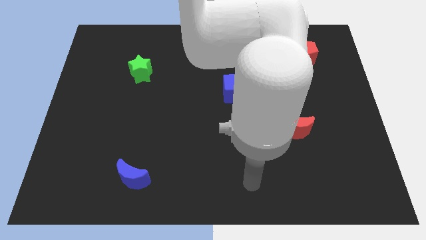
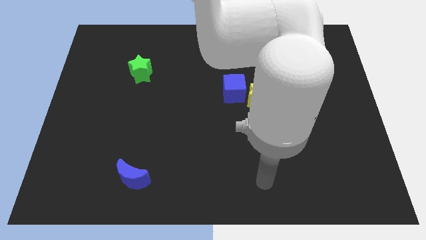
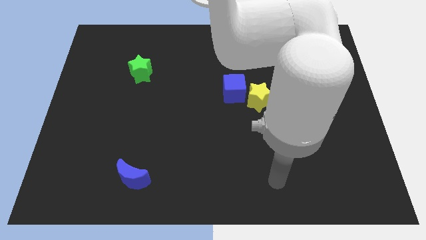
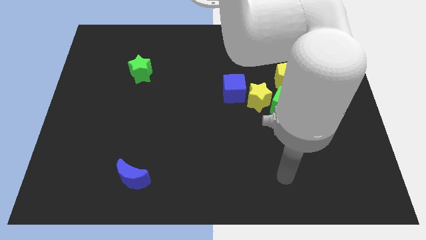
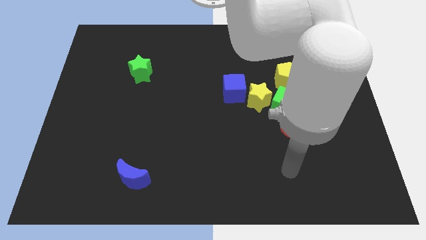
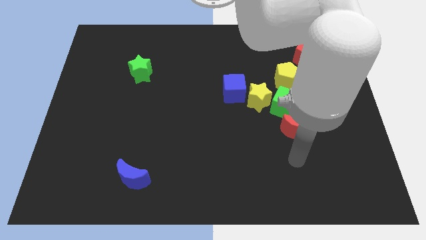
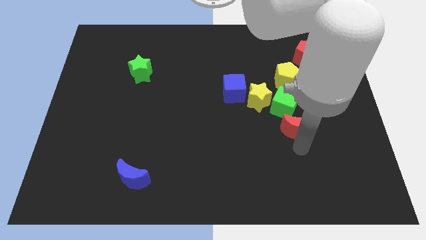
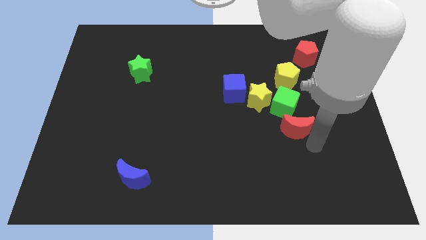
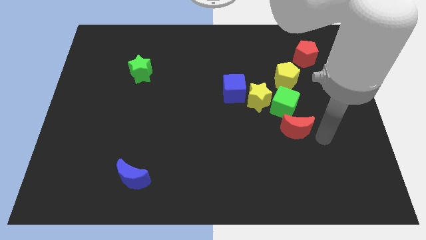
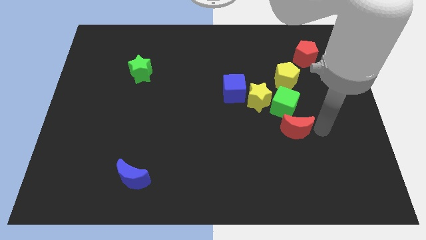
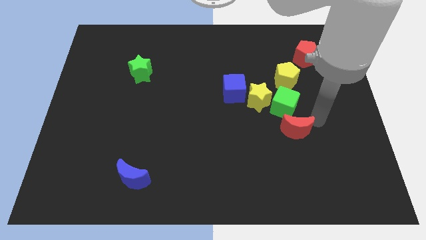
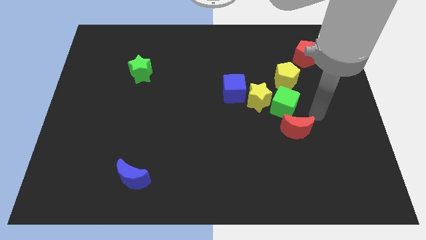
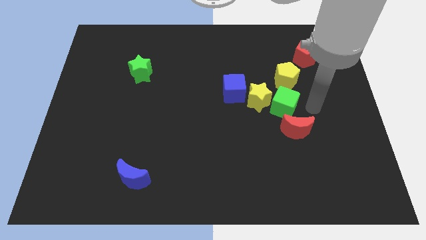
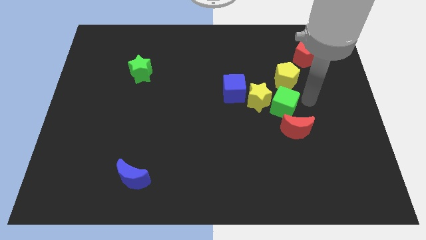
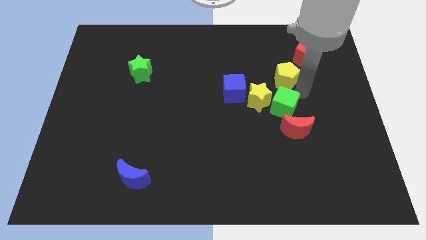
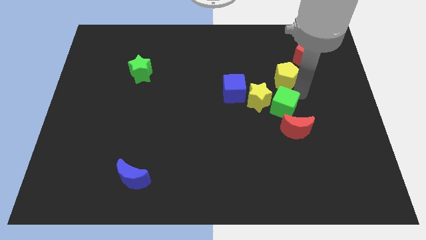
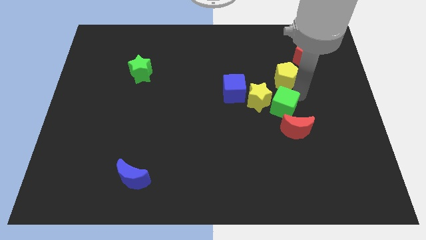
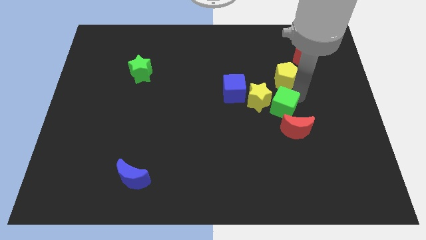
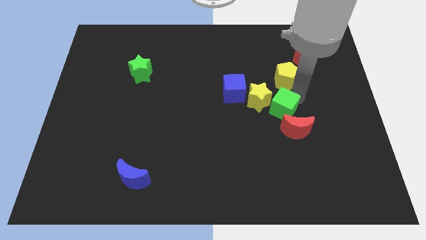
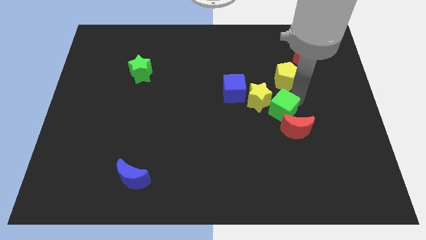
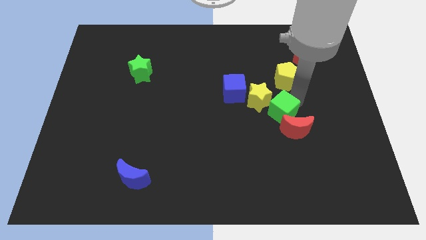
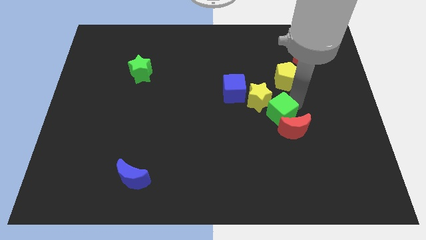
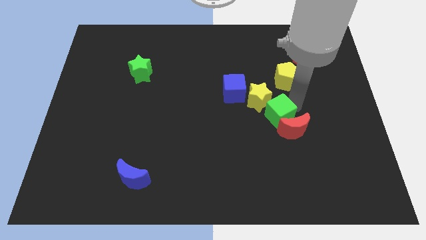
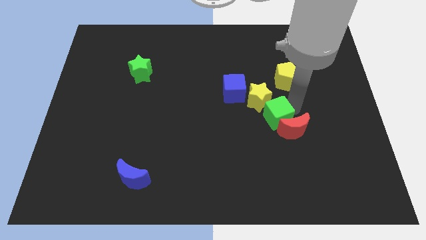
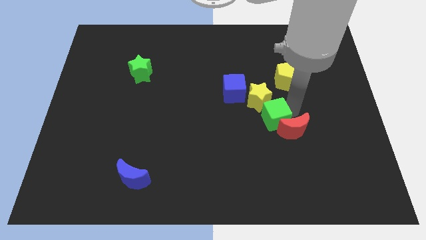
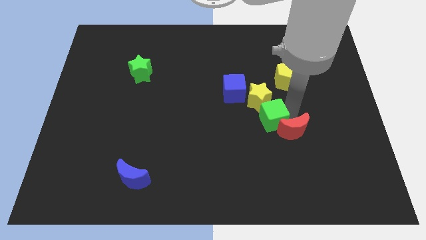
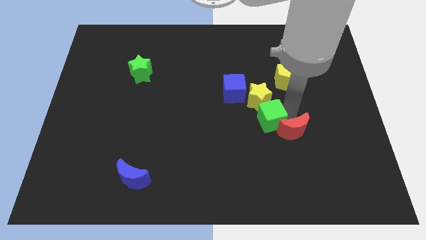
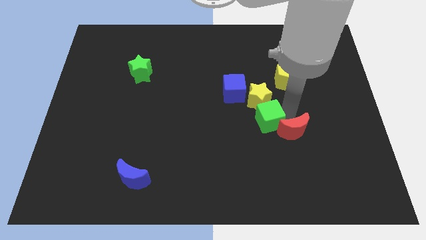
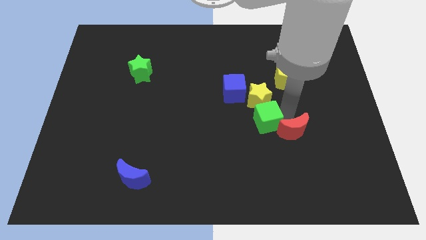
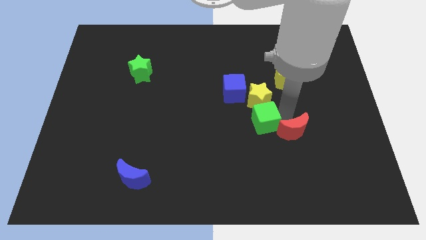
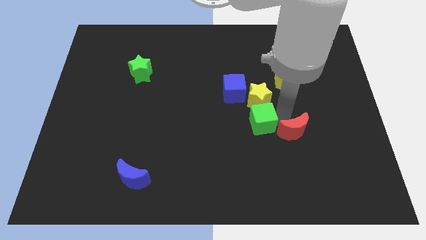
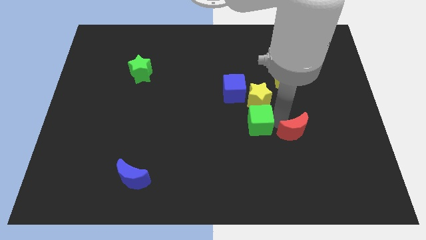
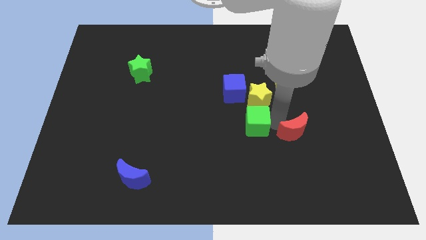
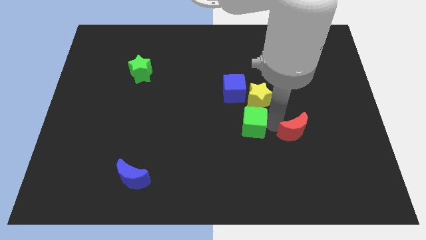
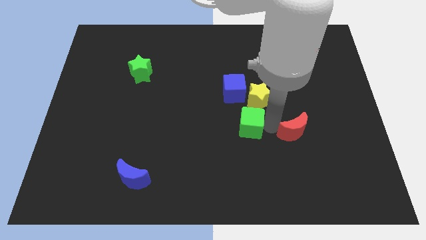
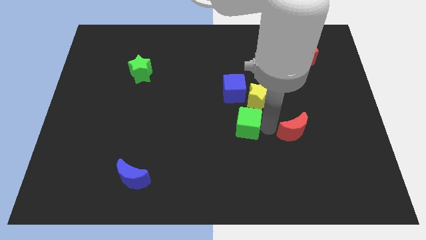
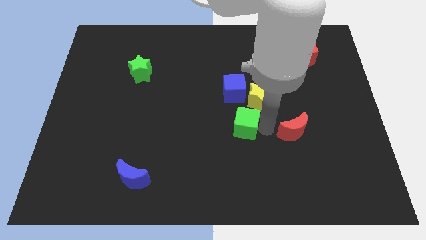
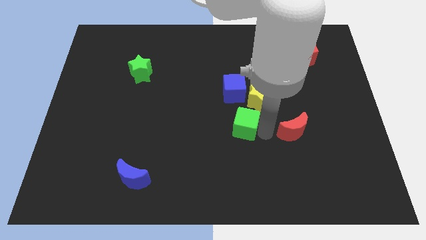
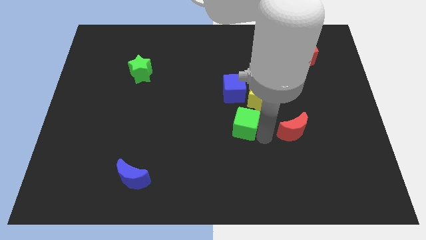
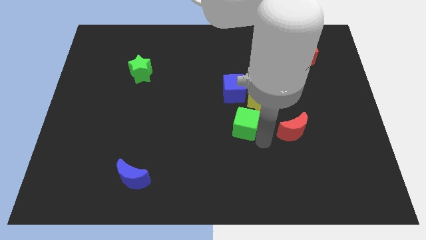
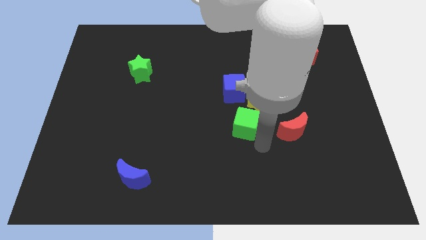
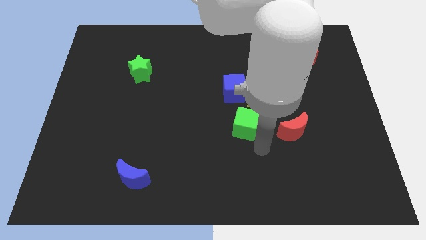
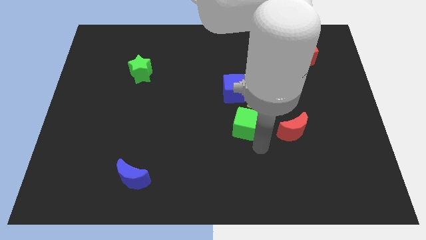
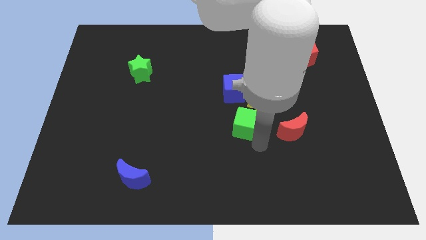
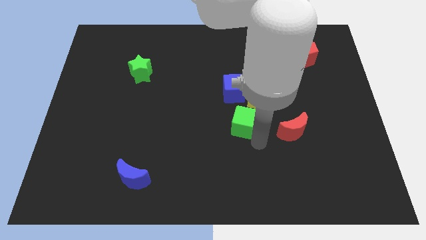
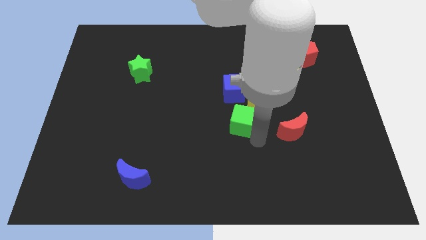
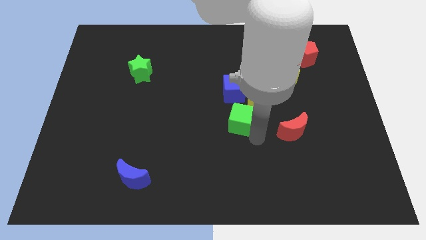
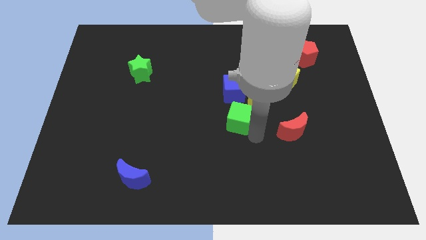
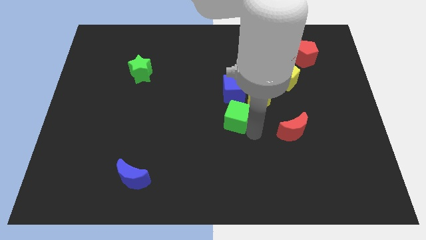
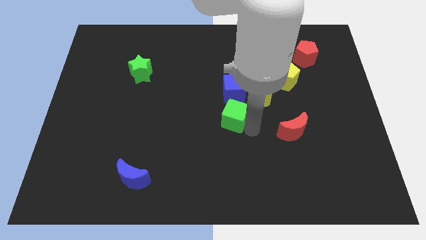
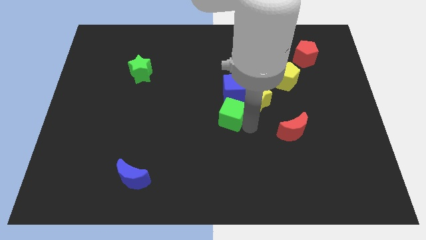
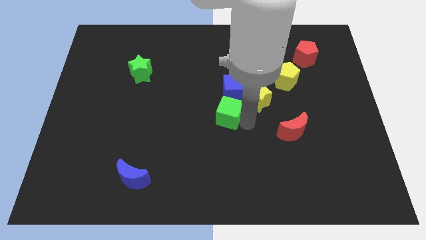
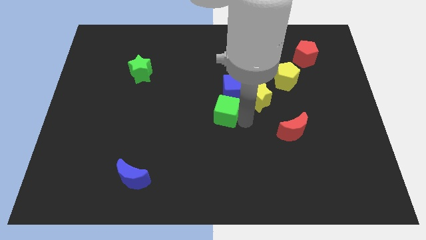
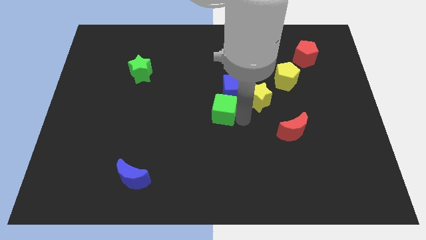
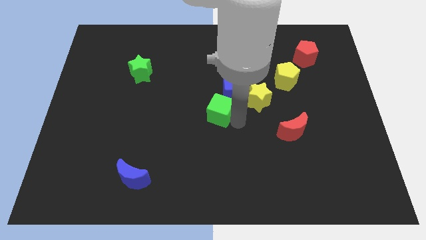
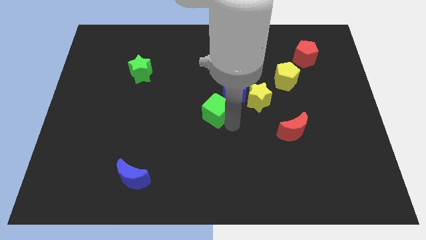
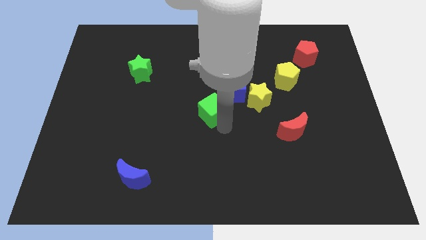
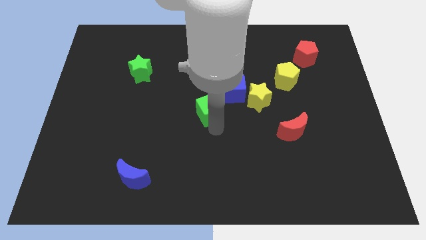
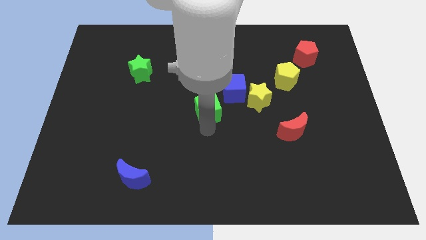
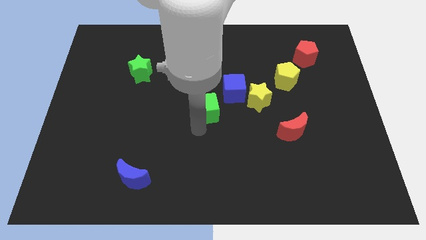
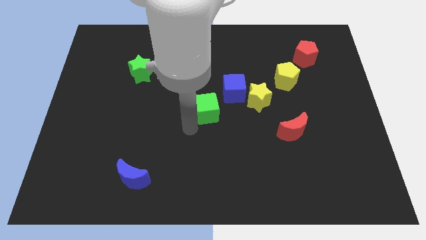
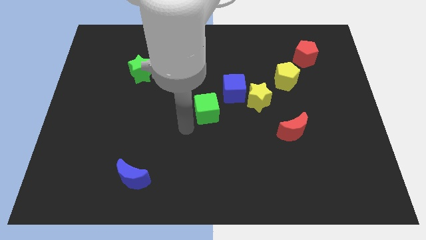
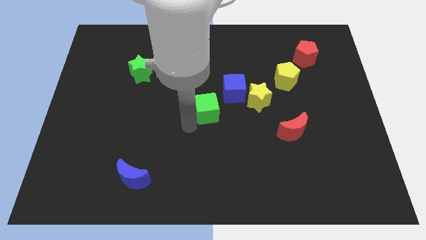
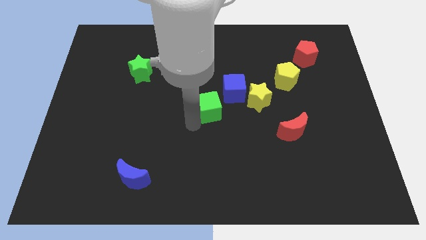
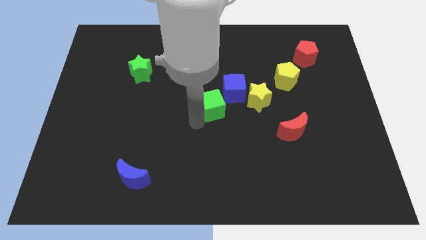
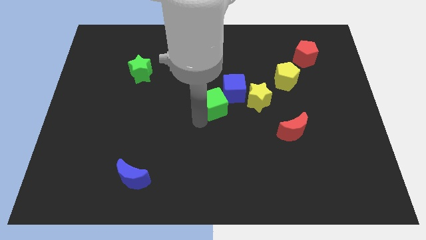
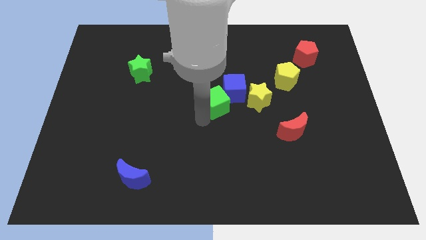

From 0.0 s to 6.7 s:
push the green cube close to the blue cube

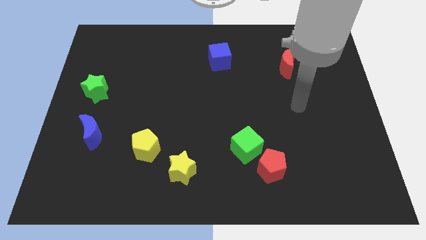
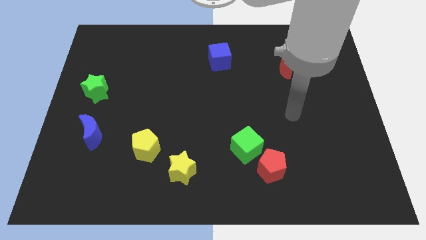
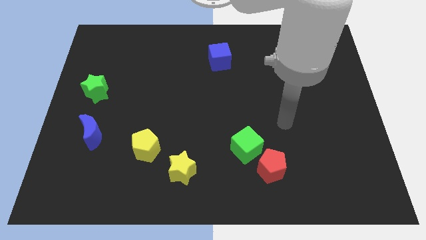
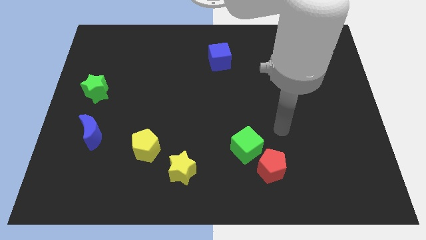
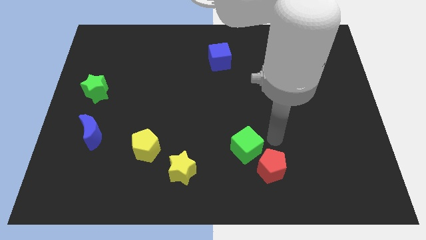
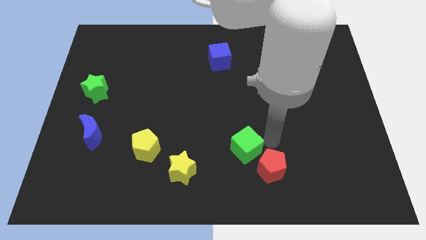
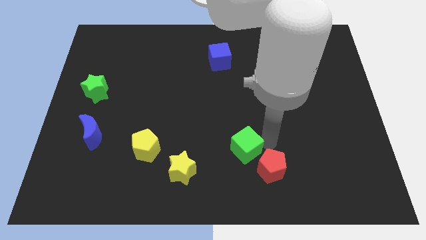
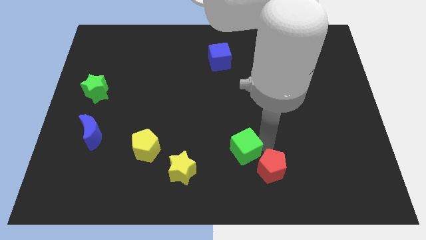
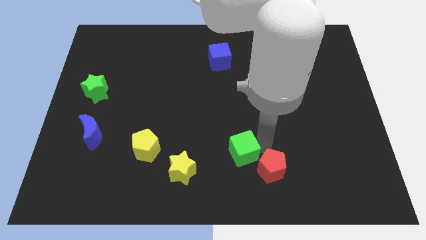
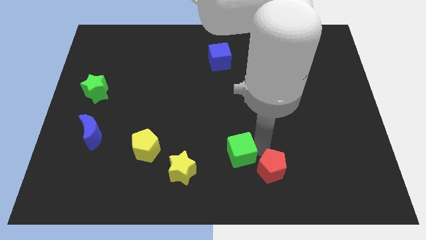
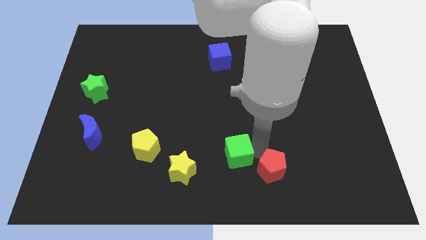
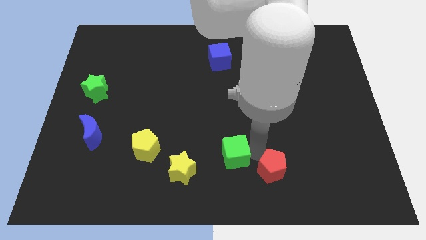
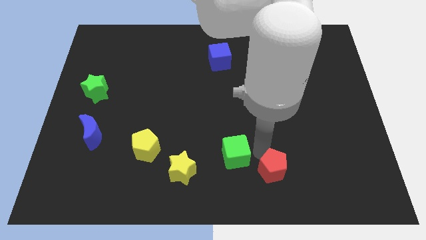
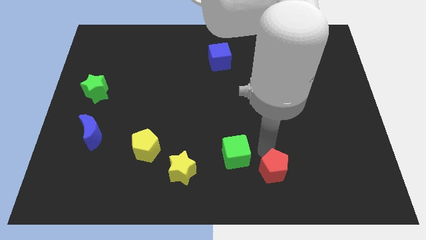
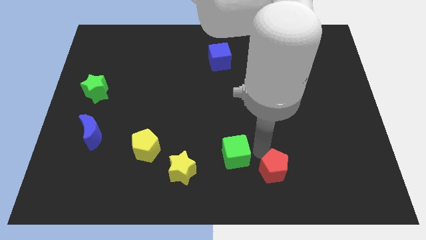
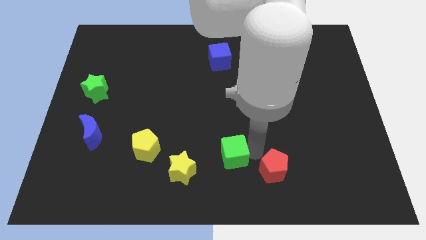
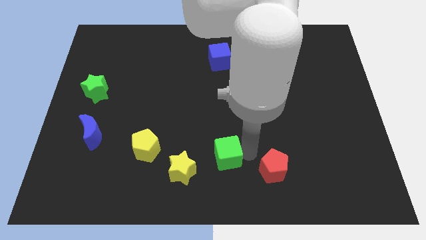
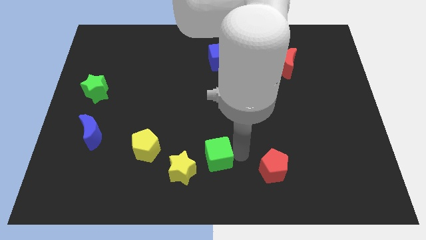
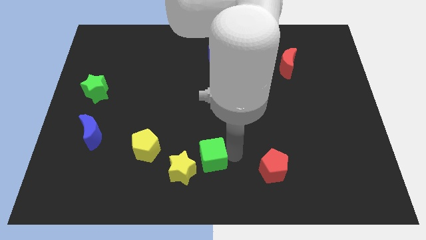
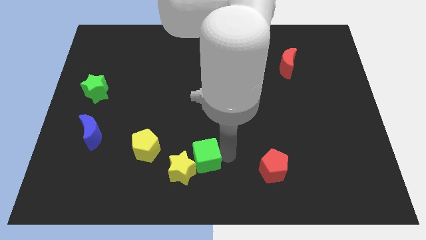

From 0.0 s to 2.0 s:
put the green cube close to the yellow star
